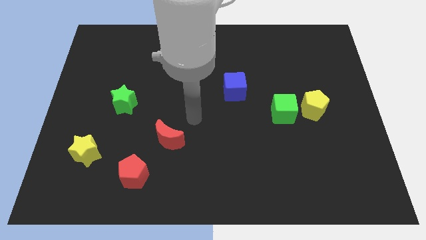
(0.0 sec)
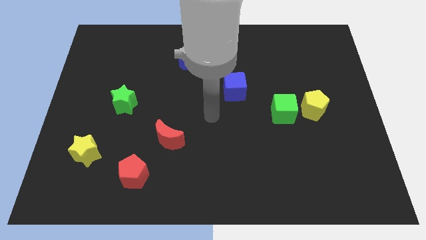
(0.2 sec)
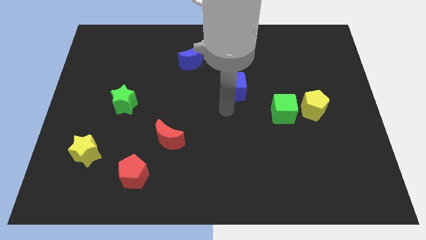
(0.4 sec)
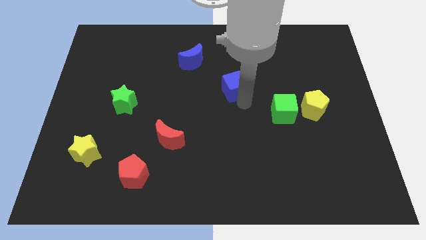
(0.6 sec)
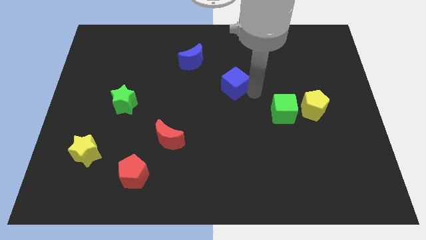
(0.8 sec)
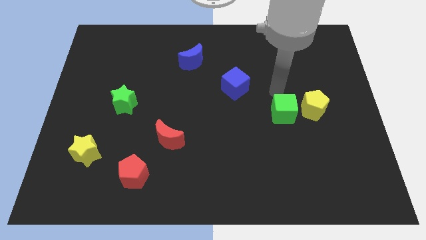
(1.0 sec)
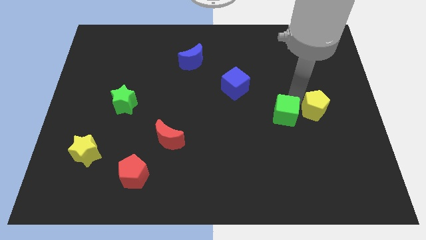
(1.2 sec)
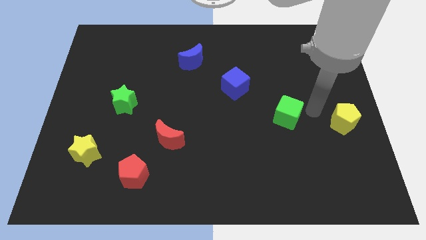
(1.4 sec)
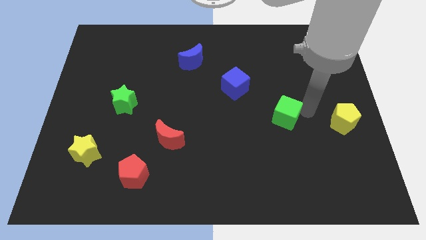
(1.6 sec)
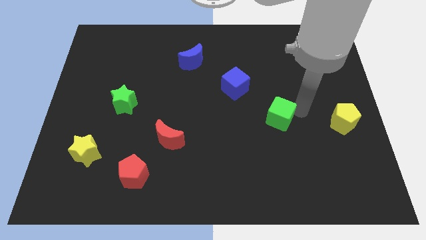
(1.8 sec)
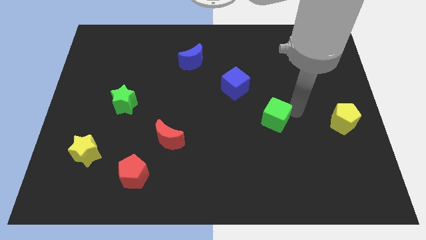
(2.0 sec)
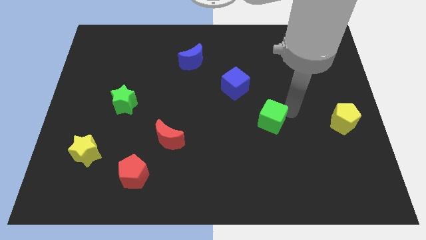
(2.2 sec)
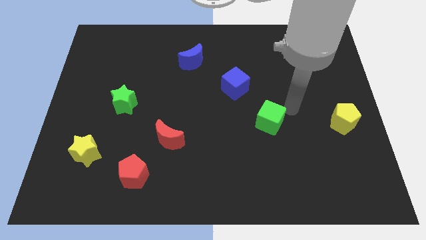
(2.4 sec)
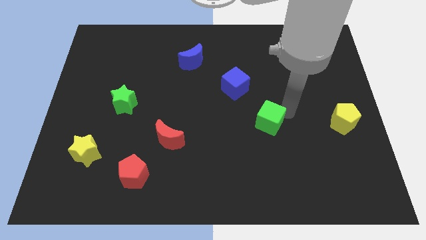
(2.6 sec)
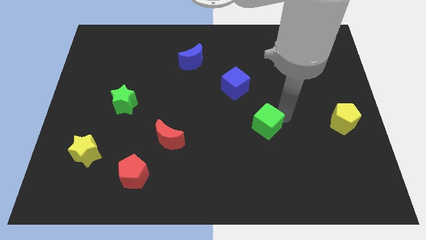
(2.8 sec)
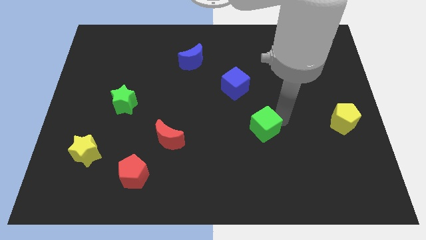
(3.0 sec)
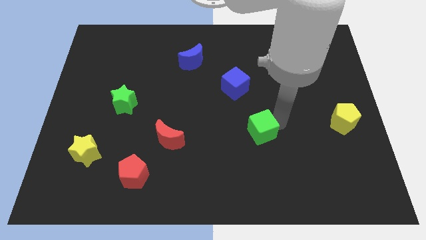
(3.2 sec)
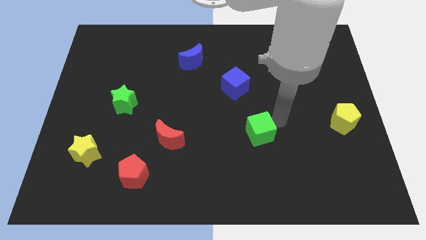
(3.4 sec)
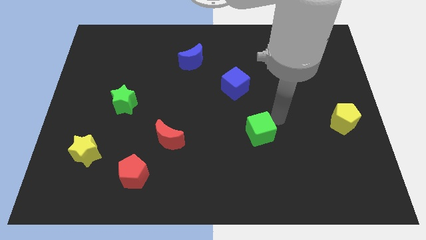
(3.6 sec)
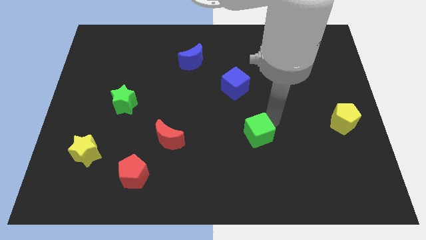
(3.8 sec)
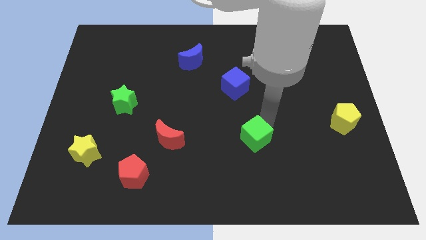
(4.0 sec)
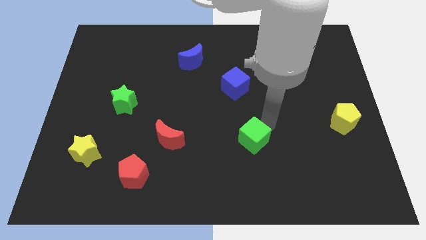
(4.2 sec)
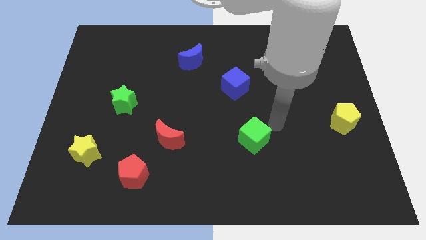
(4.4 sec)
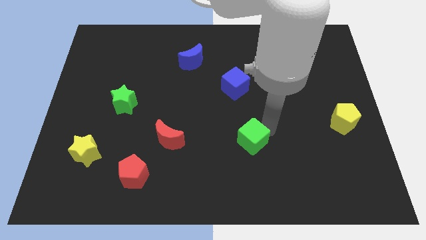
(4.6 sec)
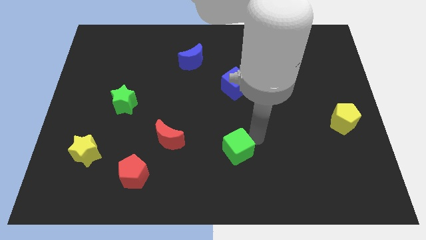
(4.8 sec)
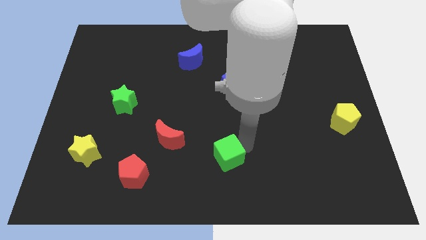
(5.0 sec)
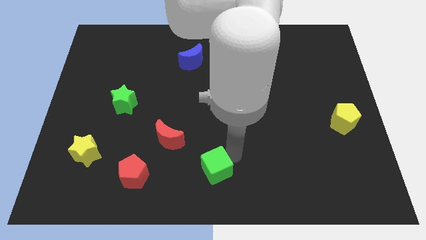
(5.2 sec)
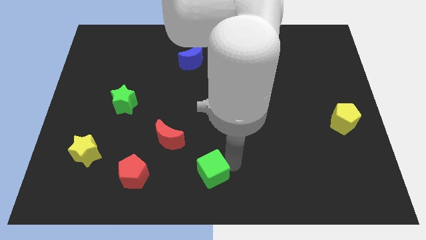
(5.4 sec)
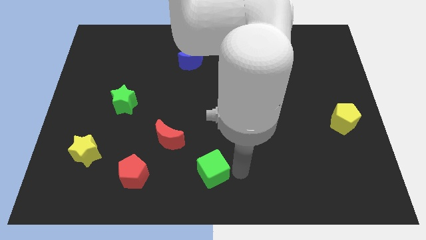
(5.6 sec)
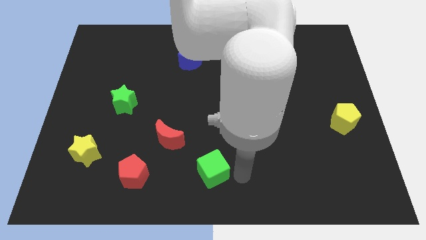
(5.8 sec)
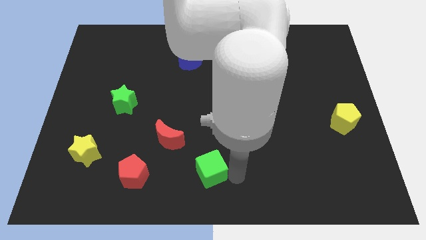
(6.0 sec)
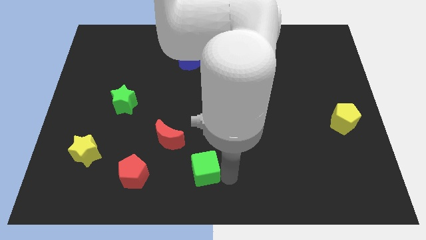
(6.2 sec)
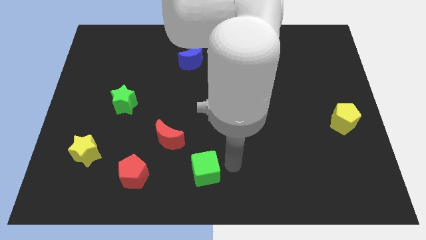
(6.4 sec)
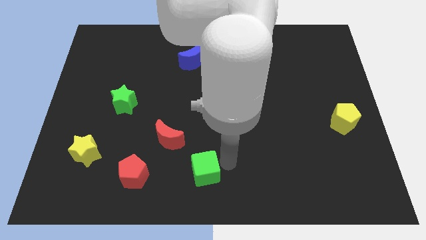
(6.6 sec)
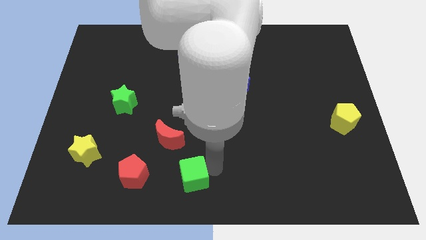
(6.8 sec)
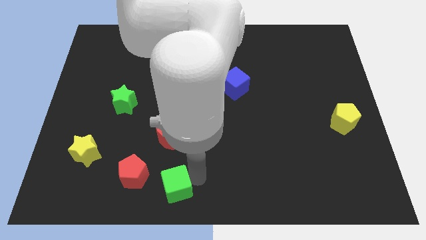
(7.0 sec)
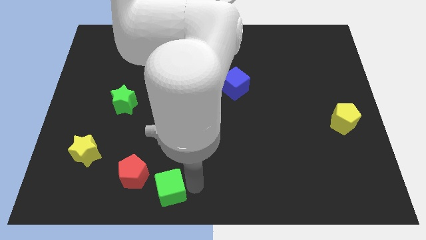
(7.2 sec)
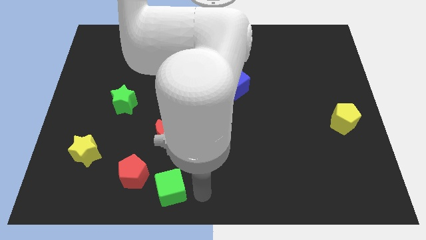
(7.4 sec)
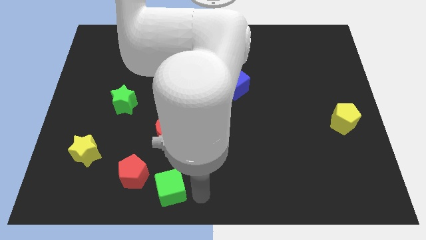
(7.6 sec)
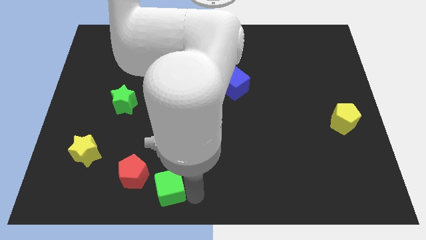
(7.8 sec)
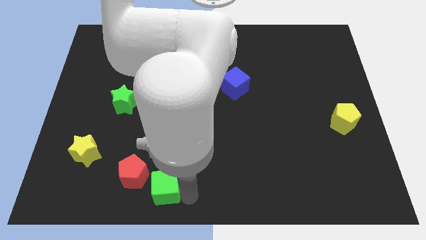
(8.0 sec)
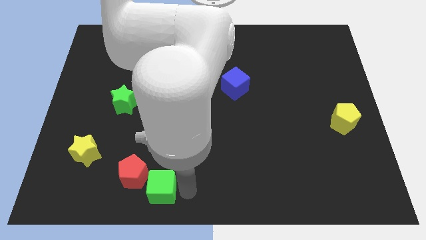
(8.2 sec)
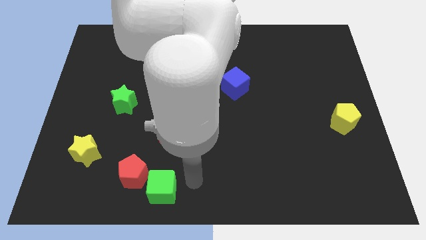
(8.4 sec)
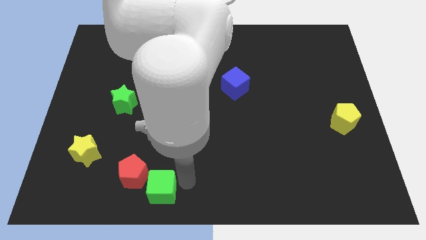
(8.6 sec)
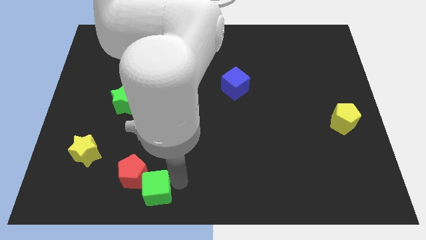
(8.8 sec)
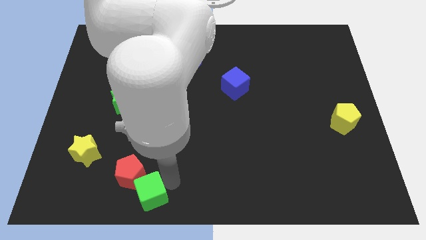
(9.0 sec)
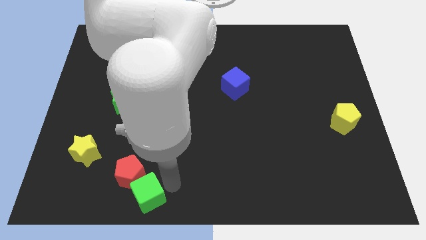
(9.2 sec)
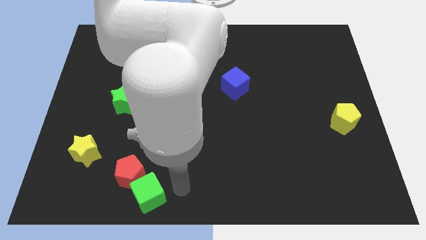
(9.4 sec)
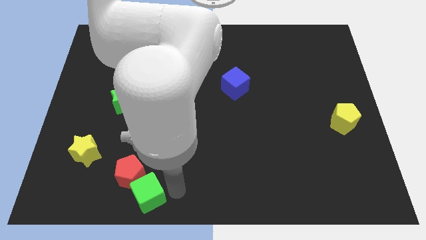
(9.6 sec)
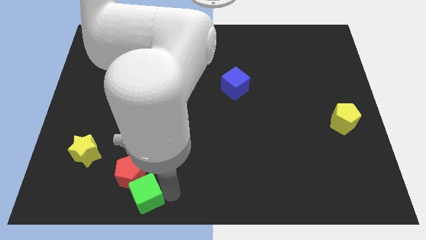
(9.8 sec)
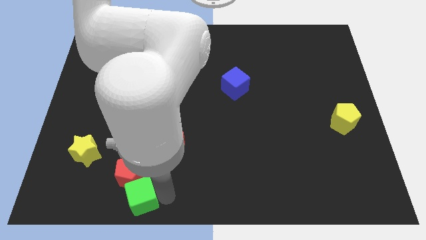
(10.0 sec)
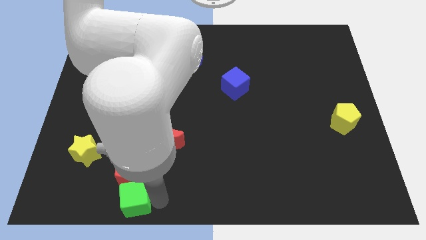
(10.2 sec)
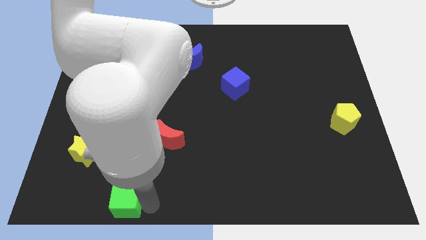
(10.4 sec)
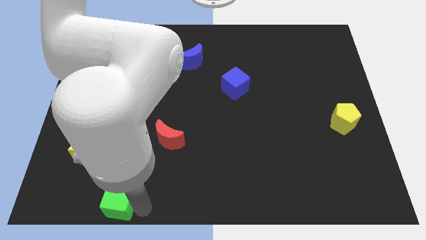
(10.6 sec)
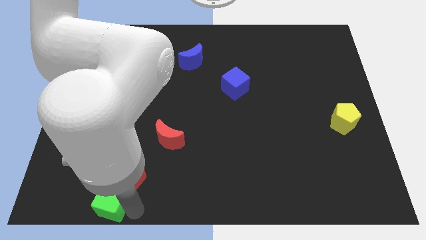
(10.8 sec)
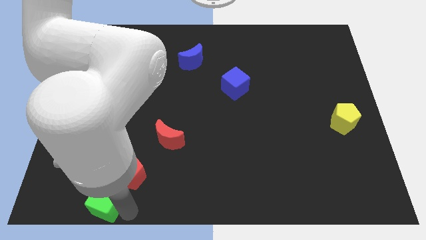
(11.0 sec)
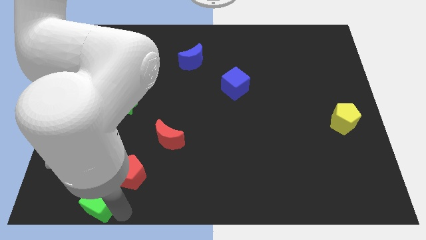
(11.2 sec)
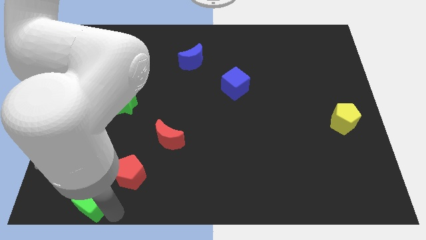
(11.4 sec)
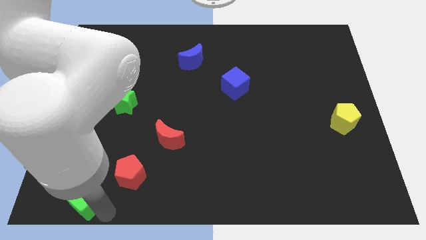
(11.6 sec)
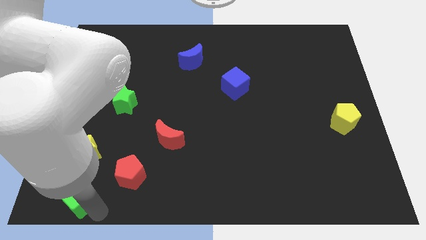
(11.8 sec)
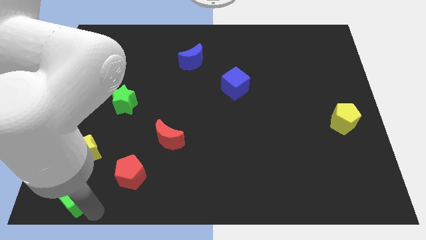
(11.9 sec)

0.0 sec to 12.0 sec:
move the green cube to the left of the red pentagon
